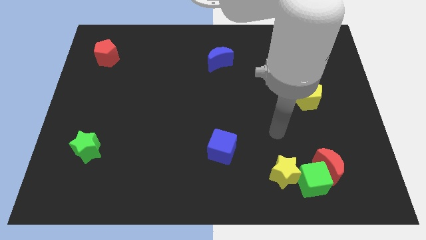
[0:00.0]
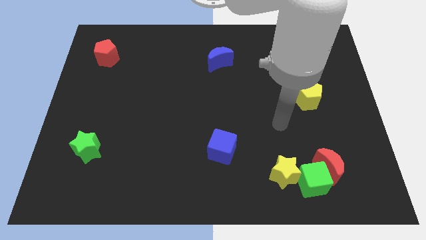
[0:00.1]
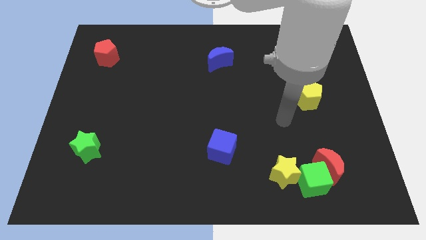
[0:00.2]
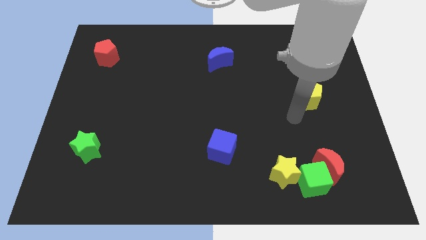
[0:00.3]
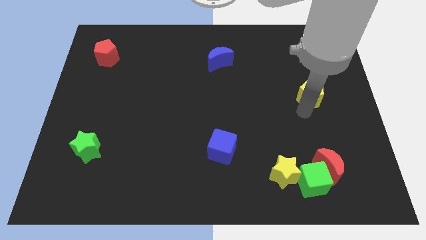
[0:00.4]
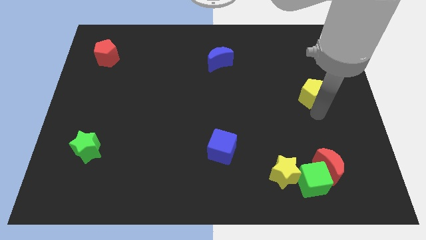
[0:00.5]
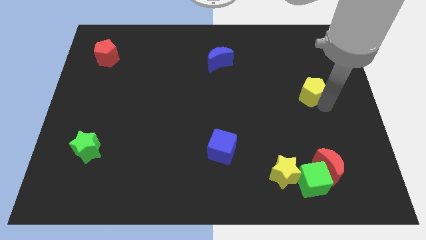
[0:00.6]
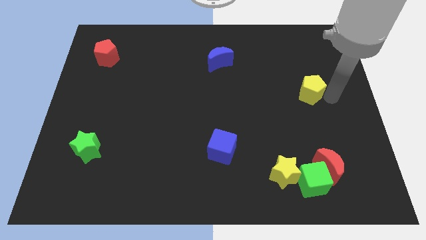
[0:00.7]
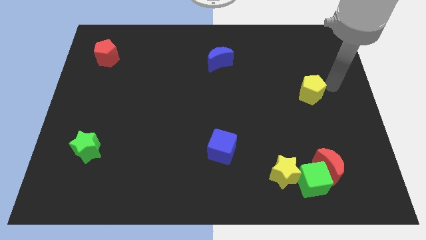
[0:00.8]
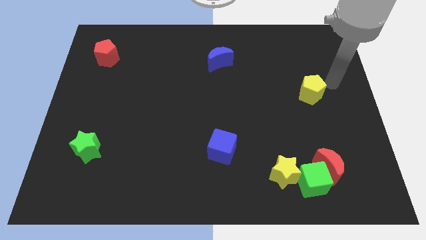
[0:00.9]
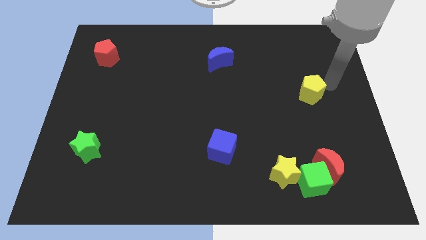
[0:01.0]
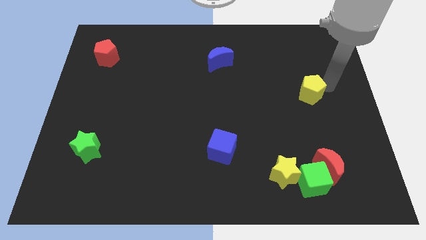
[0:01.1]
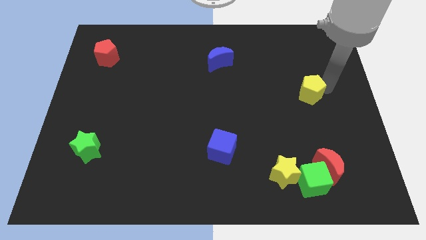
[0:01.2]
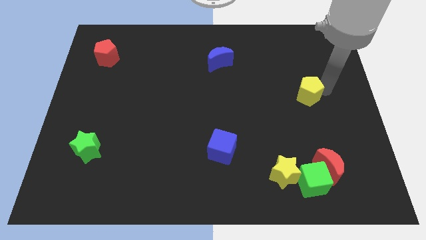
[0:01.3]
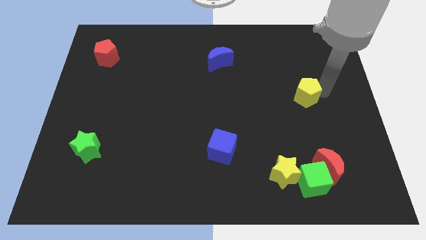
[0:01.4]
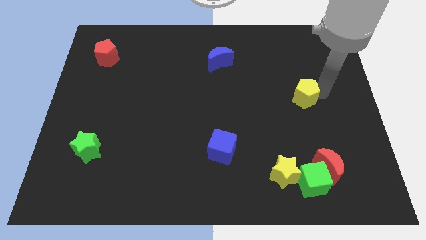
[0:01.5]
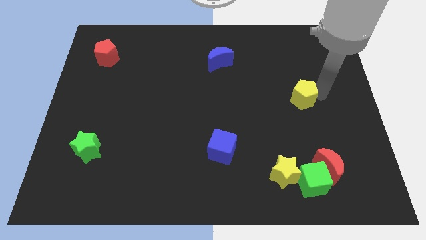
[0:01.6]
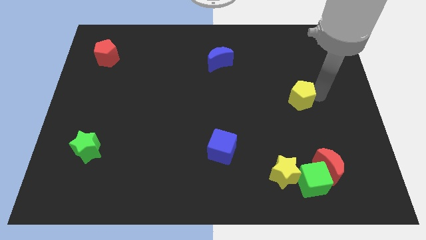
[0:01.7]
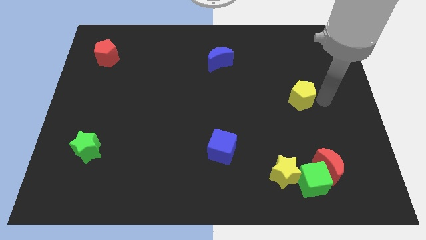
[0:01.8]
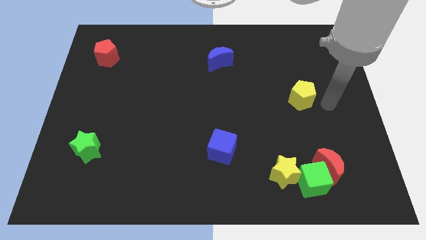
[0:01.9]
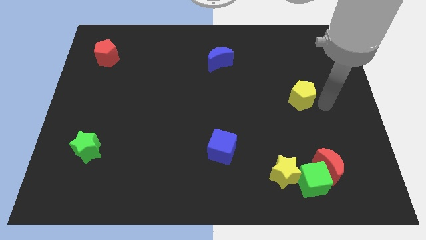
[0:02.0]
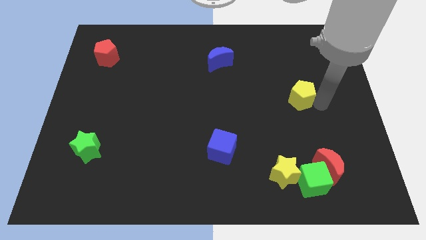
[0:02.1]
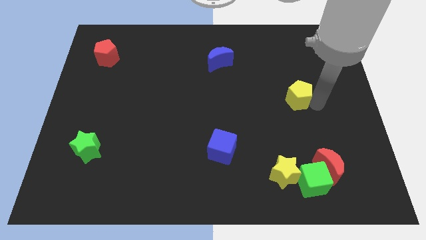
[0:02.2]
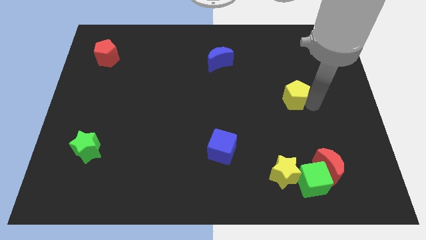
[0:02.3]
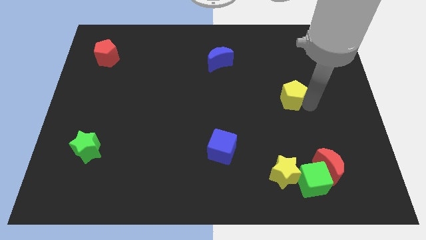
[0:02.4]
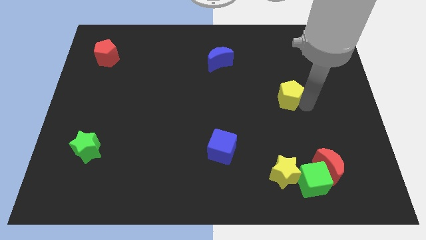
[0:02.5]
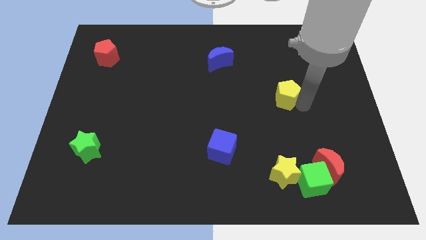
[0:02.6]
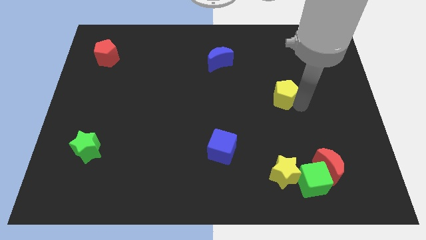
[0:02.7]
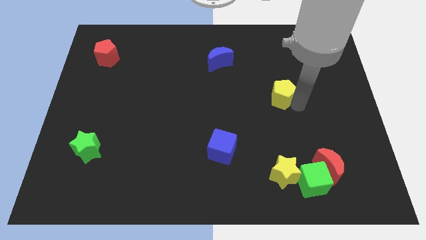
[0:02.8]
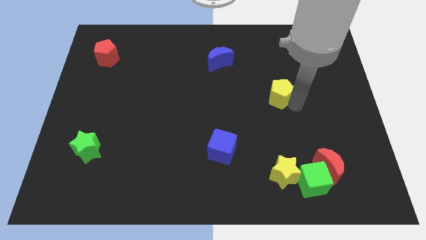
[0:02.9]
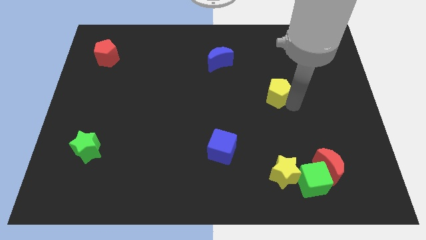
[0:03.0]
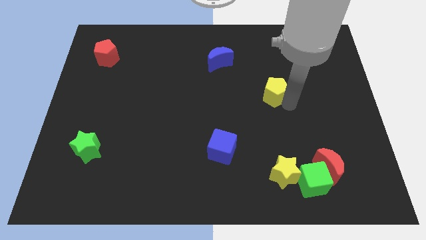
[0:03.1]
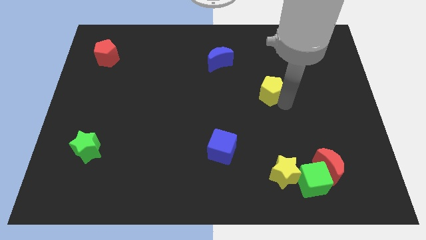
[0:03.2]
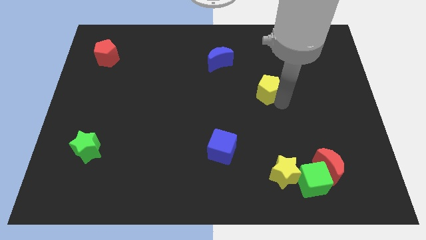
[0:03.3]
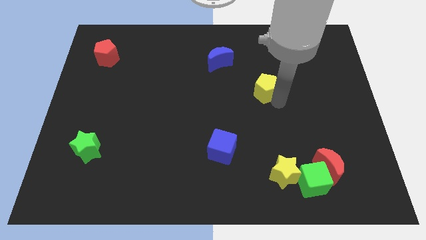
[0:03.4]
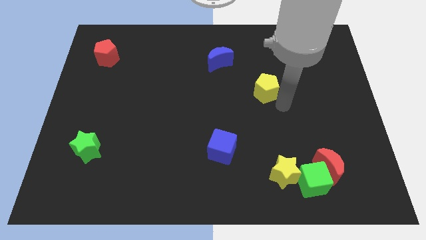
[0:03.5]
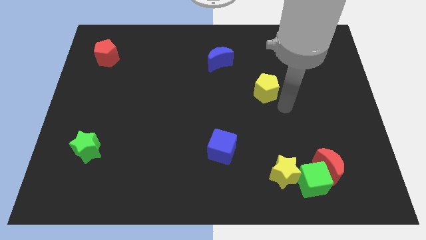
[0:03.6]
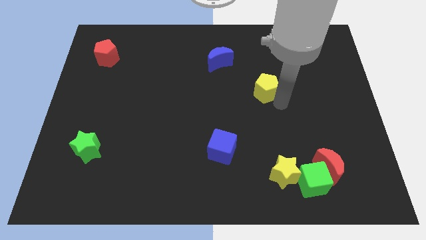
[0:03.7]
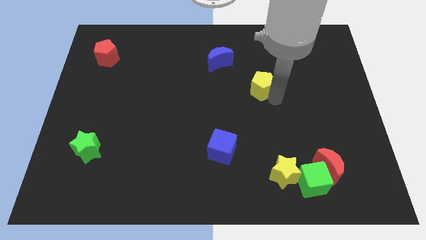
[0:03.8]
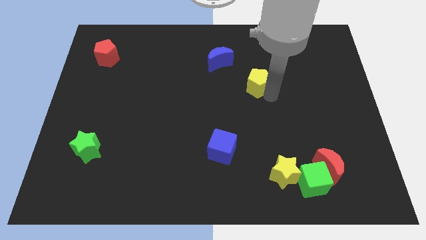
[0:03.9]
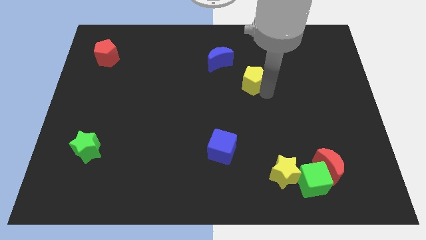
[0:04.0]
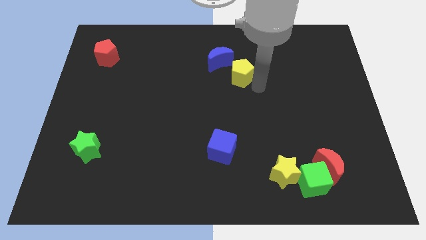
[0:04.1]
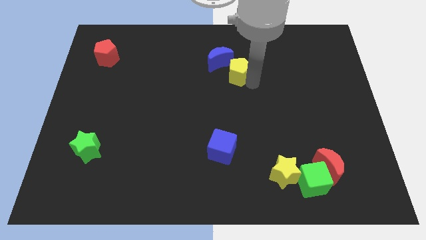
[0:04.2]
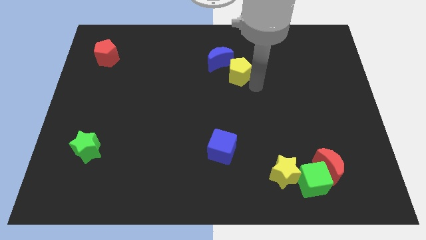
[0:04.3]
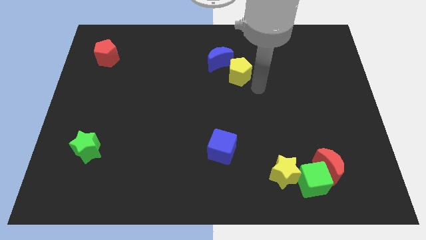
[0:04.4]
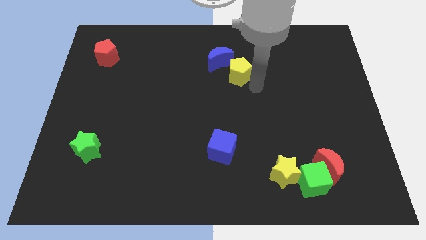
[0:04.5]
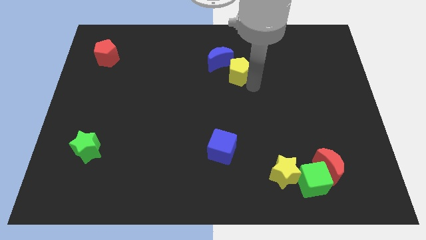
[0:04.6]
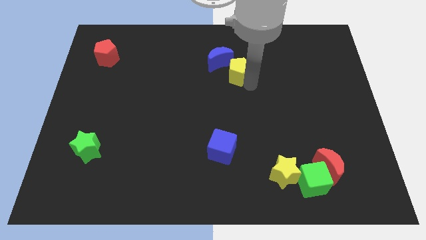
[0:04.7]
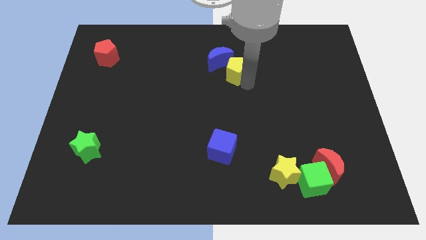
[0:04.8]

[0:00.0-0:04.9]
put the yellow pentagon next to the blue moon

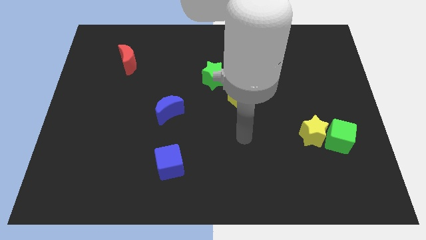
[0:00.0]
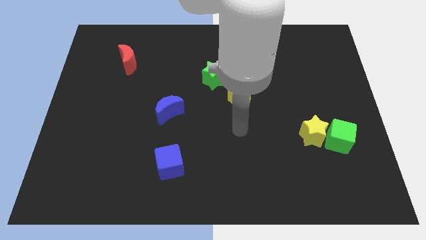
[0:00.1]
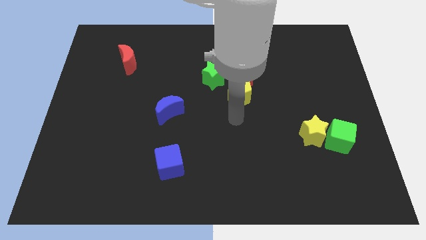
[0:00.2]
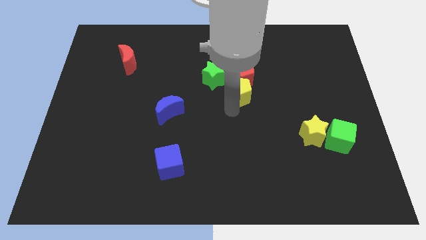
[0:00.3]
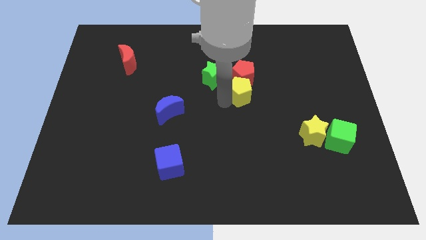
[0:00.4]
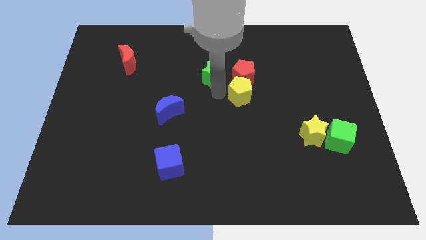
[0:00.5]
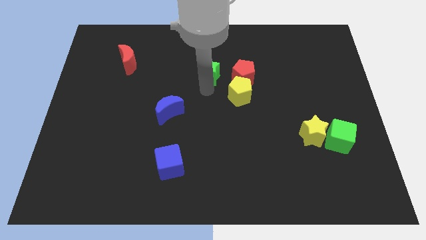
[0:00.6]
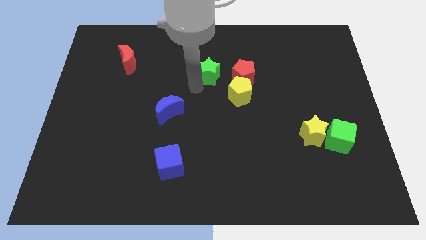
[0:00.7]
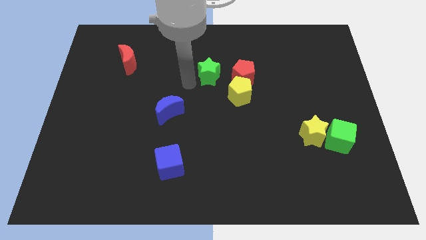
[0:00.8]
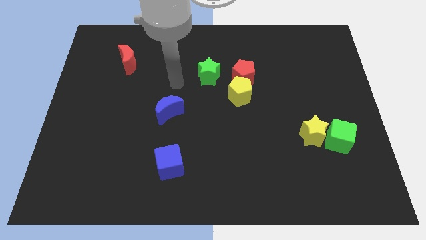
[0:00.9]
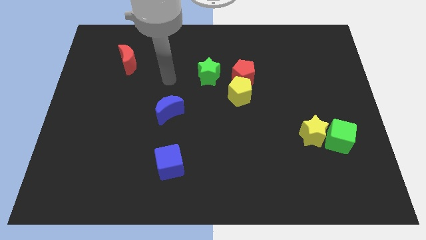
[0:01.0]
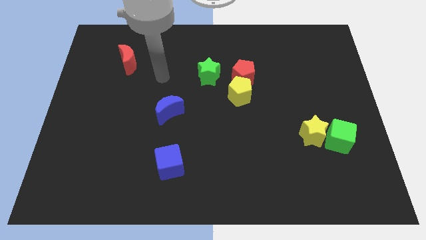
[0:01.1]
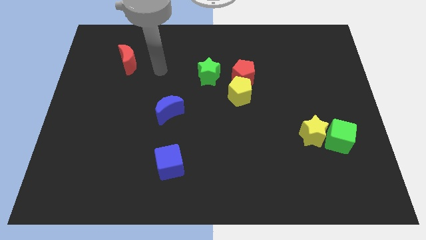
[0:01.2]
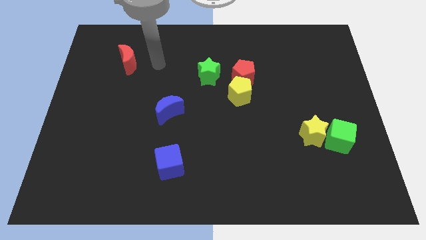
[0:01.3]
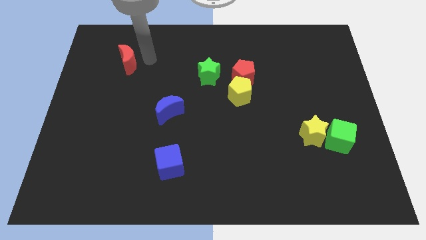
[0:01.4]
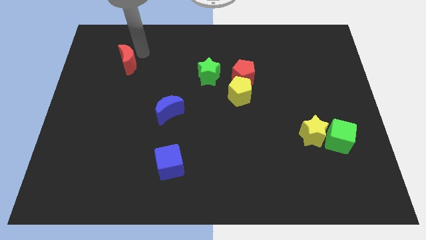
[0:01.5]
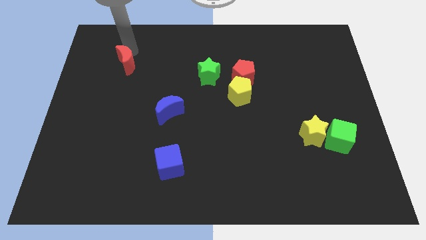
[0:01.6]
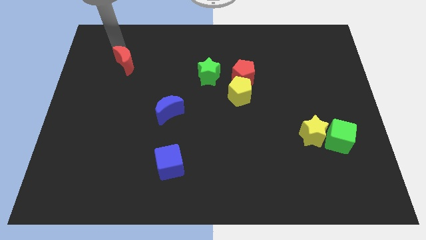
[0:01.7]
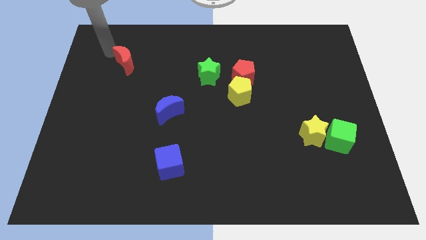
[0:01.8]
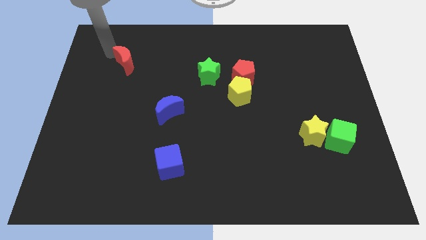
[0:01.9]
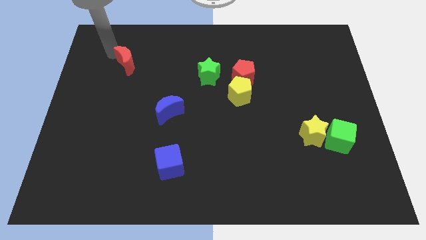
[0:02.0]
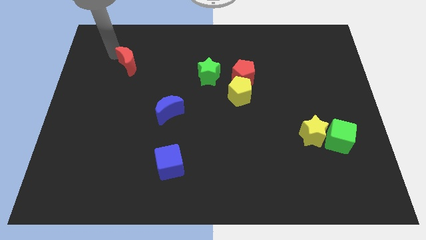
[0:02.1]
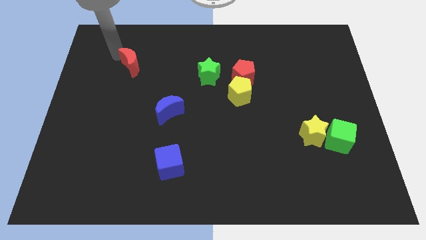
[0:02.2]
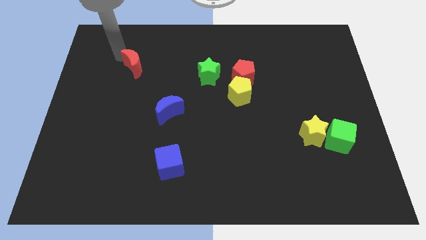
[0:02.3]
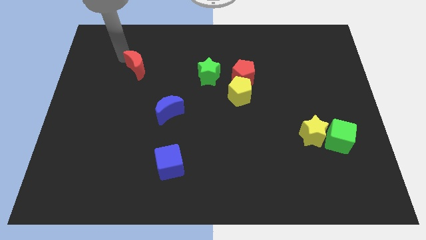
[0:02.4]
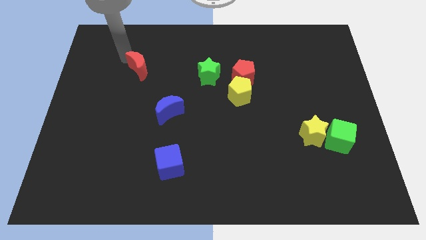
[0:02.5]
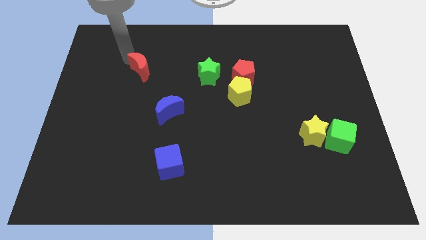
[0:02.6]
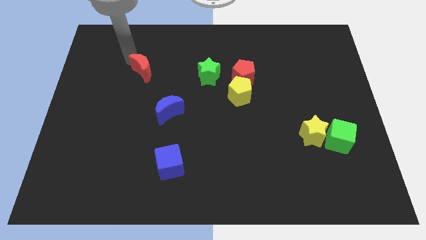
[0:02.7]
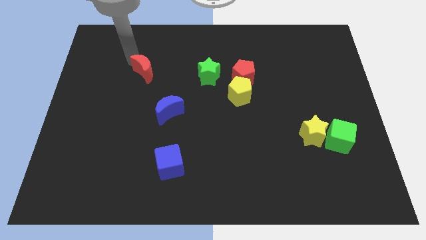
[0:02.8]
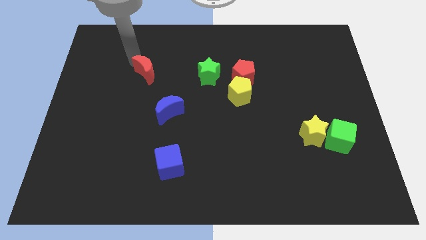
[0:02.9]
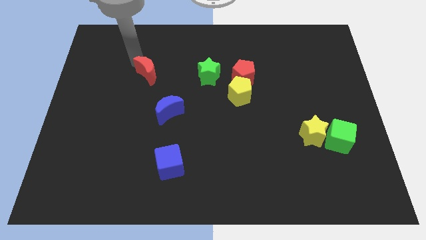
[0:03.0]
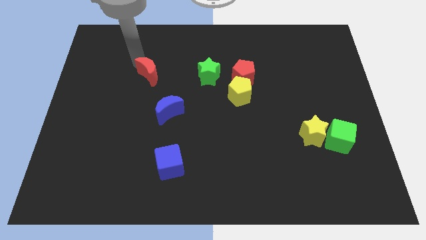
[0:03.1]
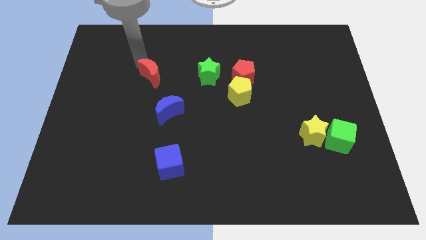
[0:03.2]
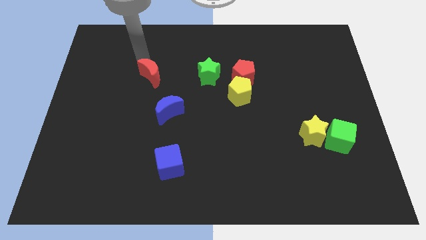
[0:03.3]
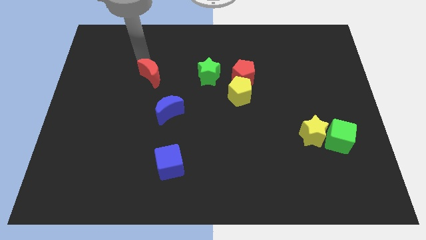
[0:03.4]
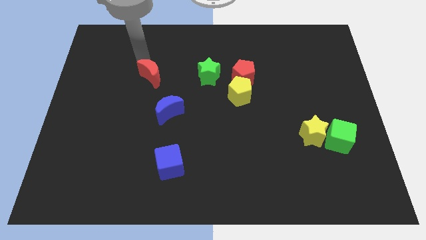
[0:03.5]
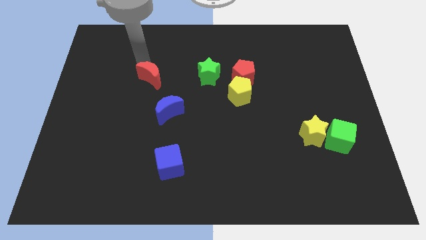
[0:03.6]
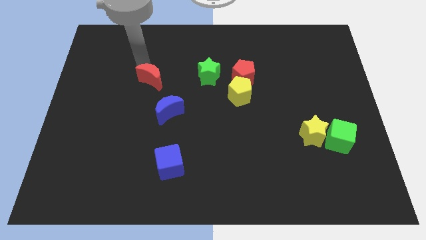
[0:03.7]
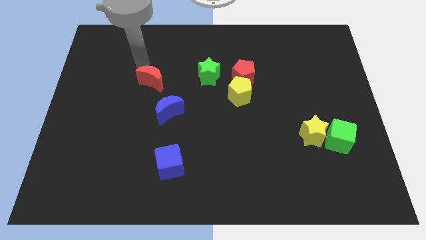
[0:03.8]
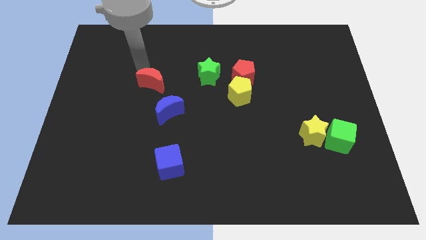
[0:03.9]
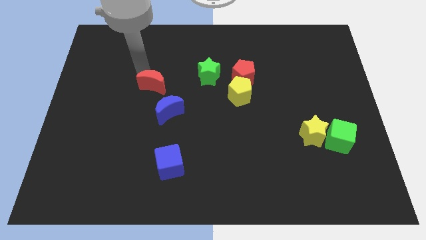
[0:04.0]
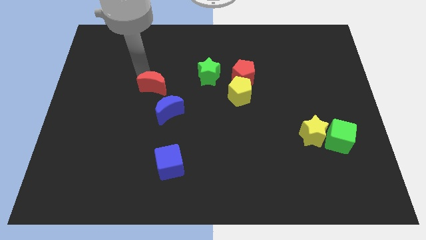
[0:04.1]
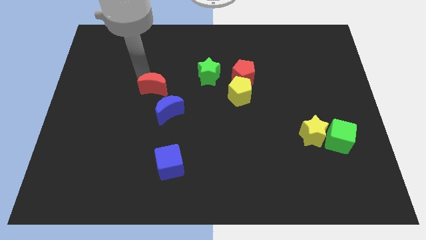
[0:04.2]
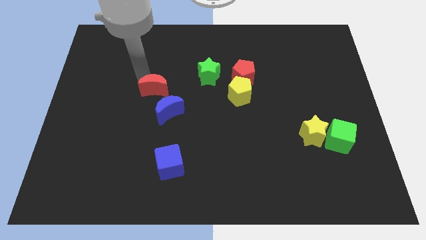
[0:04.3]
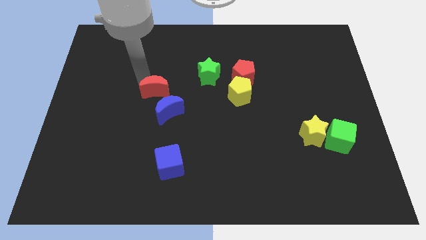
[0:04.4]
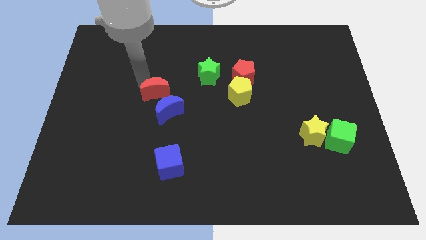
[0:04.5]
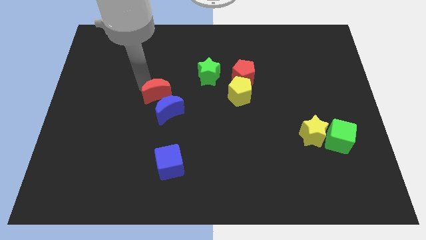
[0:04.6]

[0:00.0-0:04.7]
move the red moon towards the blue moon
